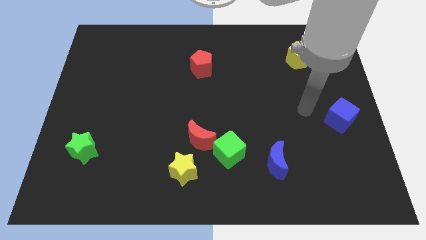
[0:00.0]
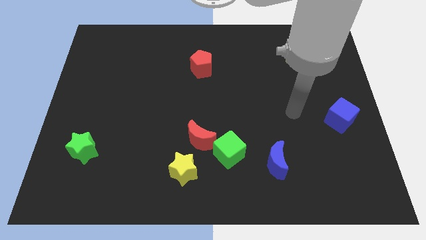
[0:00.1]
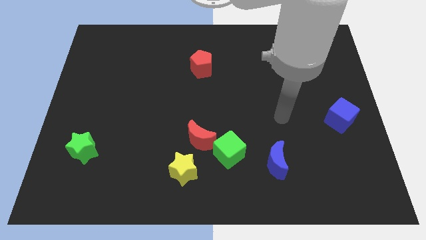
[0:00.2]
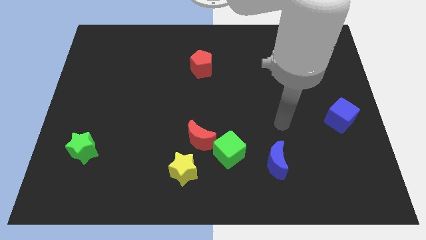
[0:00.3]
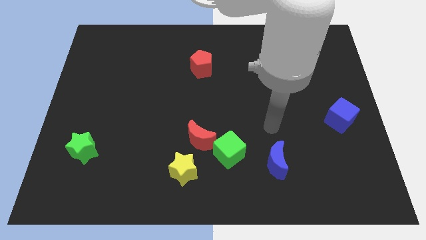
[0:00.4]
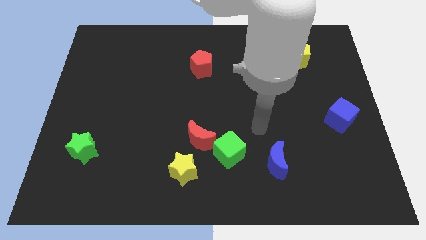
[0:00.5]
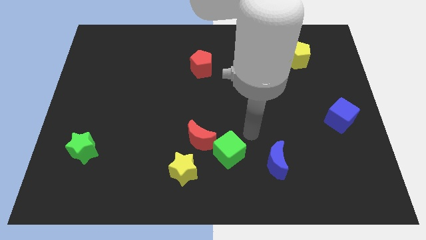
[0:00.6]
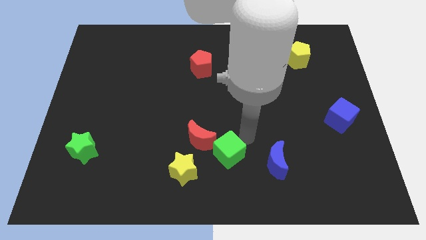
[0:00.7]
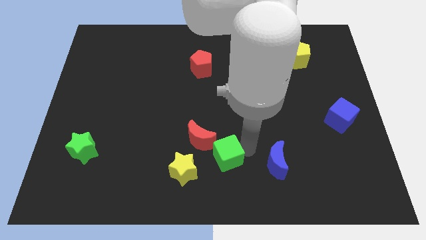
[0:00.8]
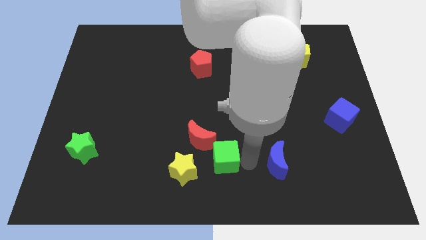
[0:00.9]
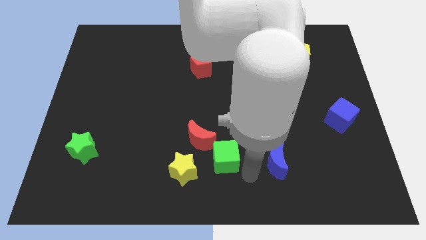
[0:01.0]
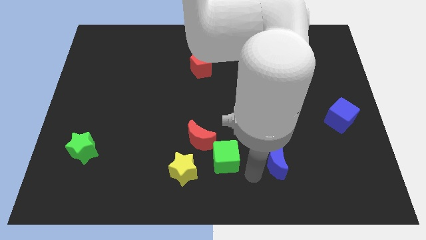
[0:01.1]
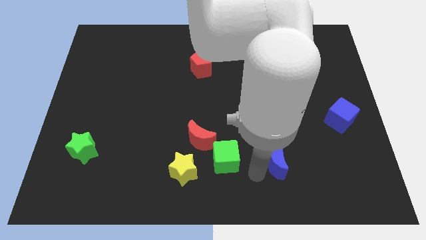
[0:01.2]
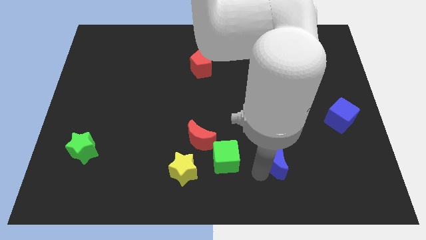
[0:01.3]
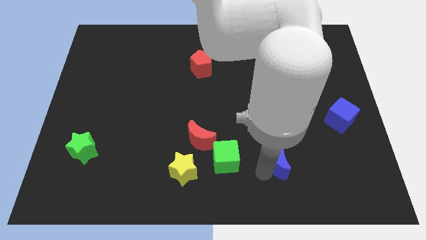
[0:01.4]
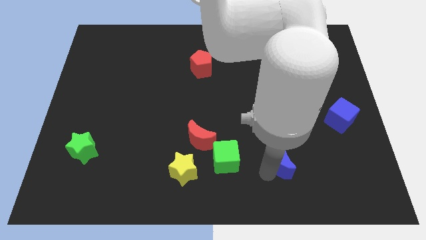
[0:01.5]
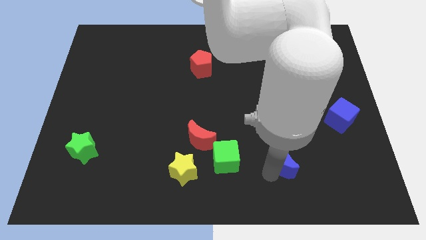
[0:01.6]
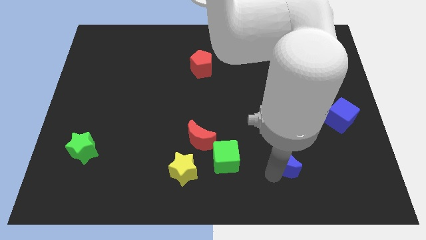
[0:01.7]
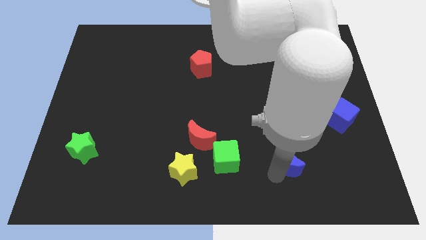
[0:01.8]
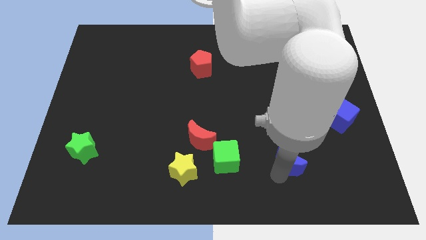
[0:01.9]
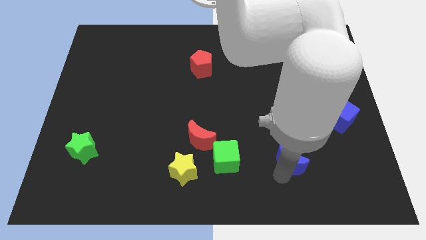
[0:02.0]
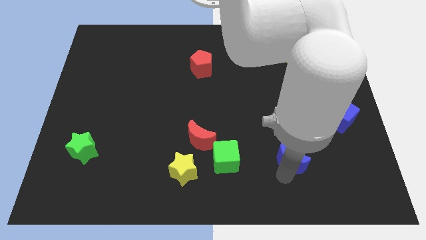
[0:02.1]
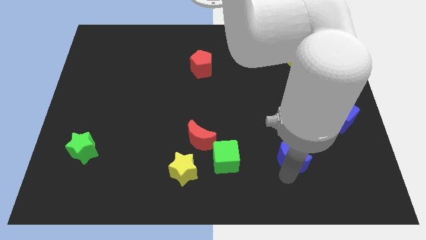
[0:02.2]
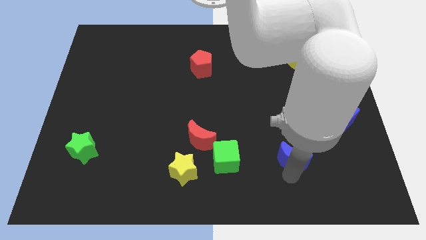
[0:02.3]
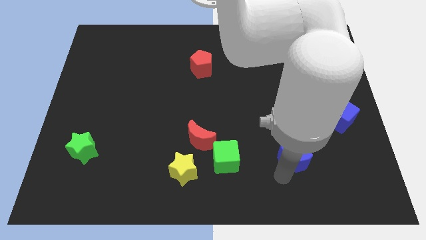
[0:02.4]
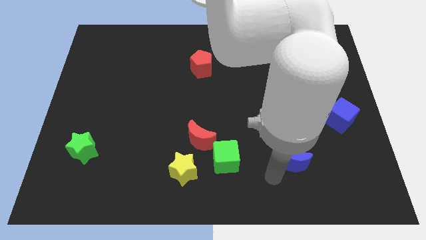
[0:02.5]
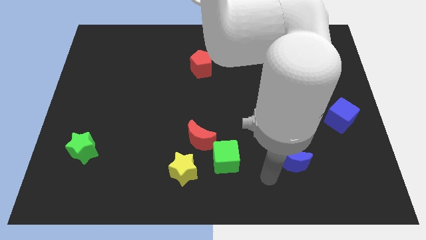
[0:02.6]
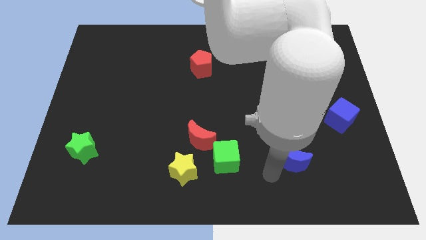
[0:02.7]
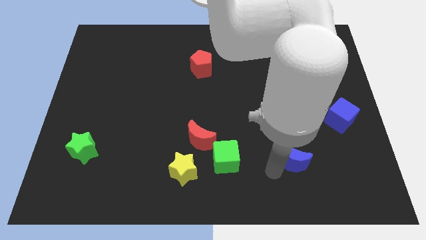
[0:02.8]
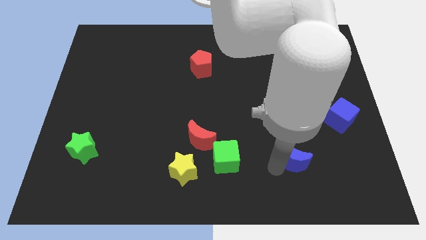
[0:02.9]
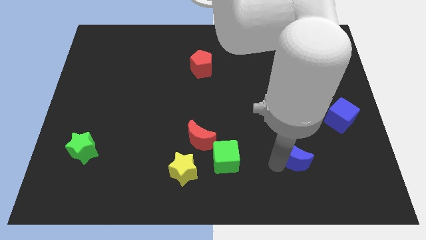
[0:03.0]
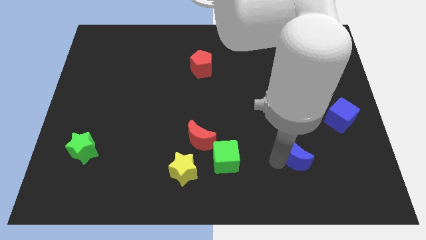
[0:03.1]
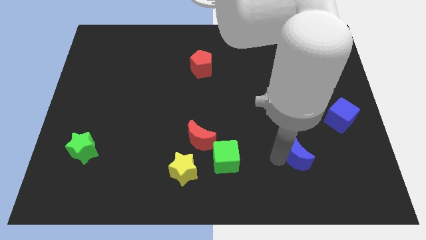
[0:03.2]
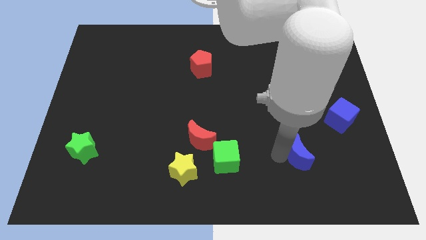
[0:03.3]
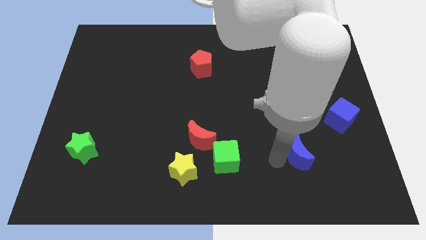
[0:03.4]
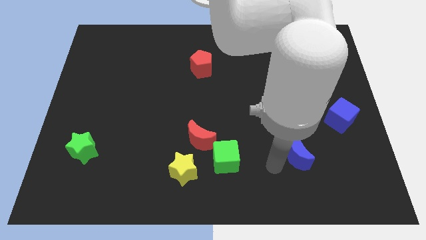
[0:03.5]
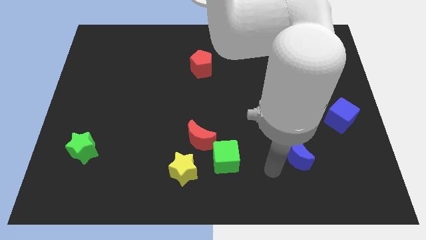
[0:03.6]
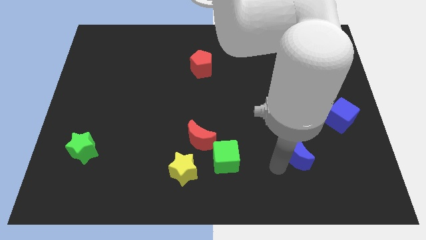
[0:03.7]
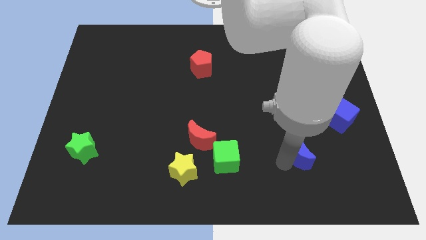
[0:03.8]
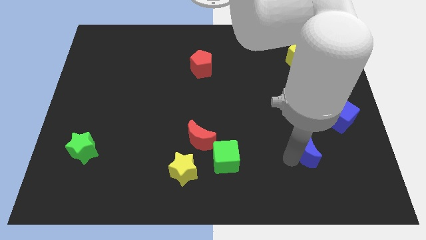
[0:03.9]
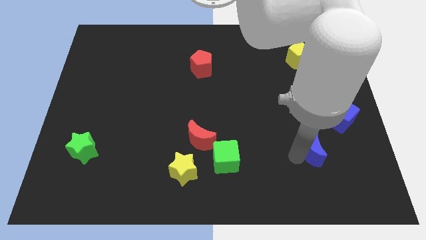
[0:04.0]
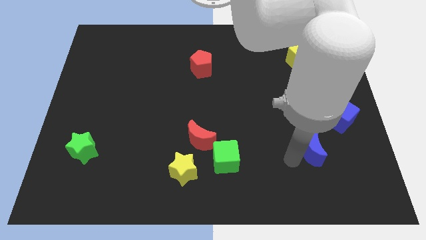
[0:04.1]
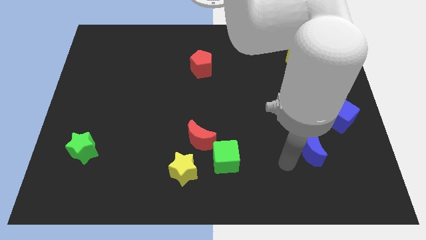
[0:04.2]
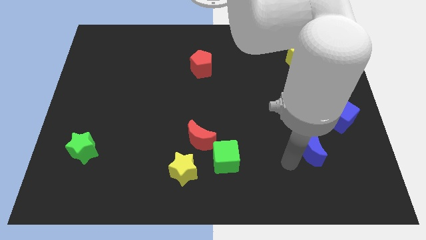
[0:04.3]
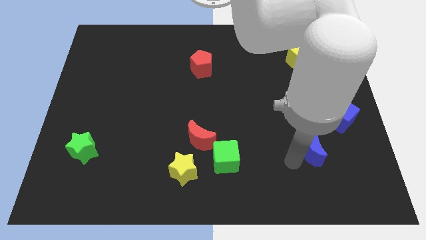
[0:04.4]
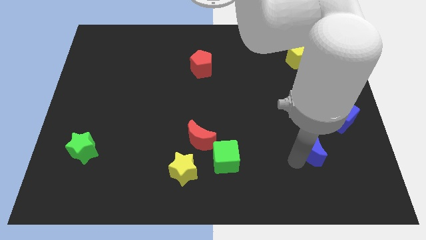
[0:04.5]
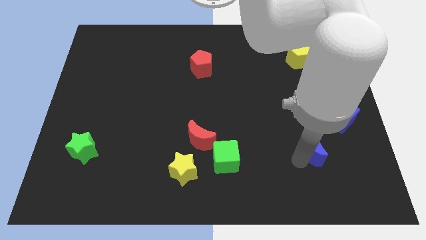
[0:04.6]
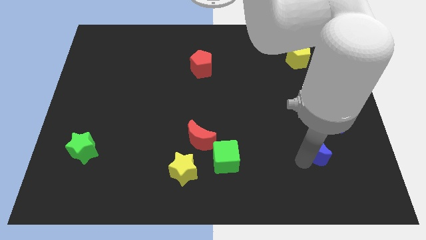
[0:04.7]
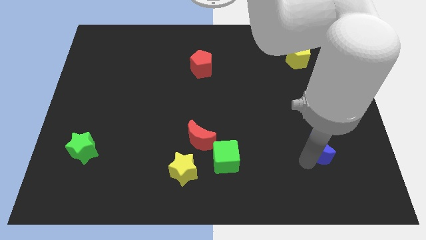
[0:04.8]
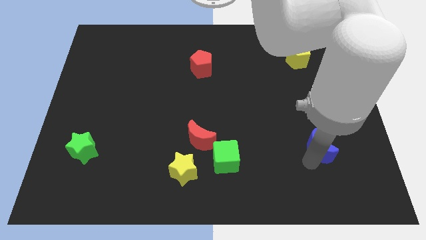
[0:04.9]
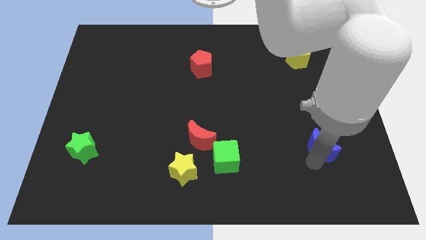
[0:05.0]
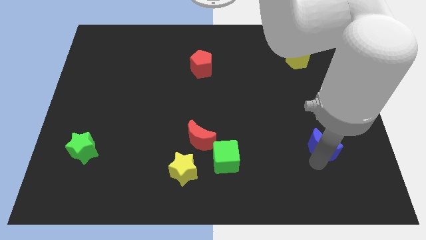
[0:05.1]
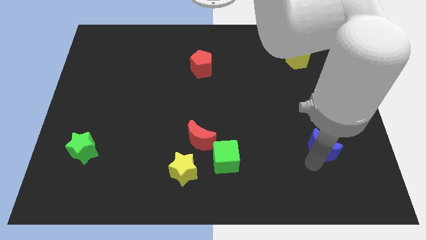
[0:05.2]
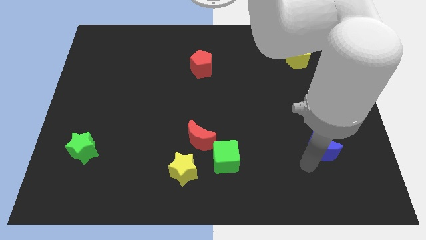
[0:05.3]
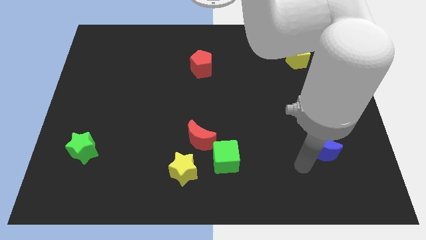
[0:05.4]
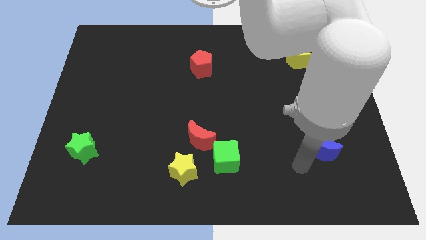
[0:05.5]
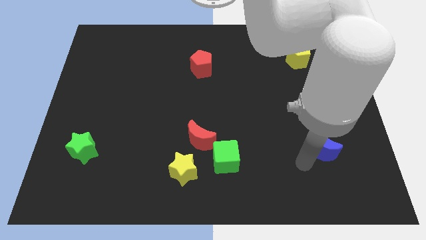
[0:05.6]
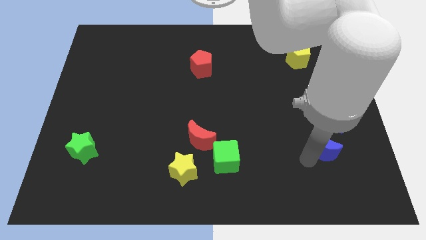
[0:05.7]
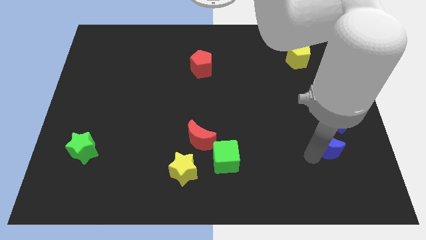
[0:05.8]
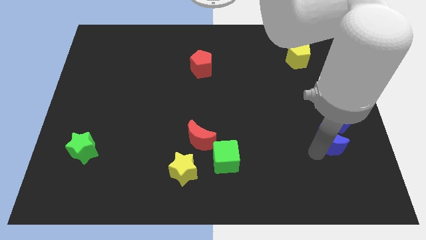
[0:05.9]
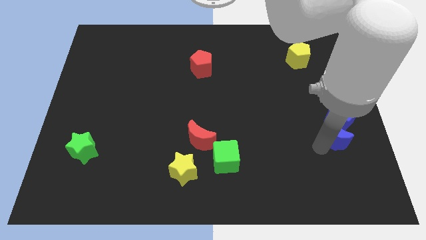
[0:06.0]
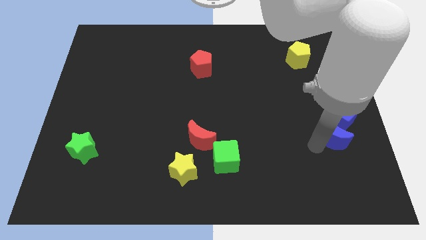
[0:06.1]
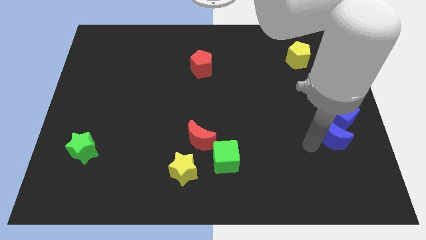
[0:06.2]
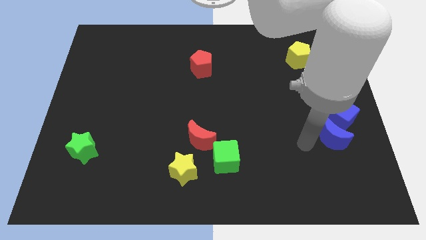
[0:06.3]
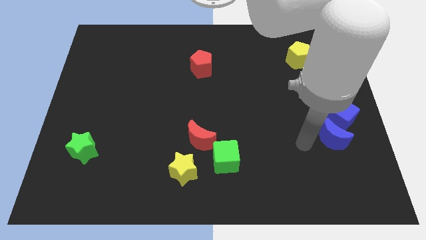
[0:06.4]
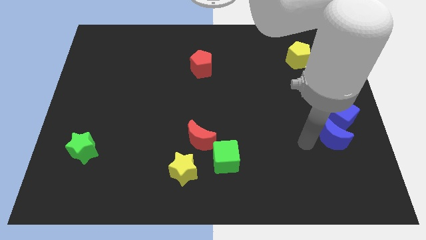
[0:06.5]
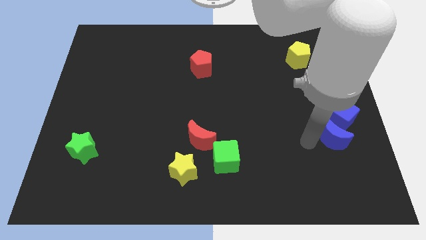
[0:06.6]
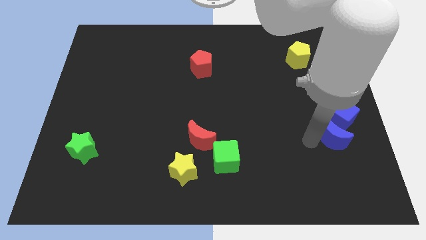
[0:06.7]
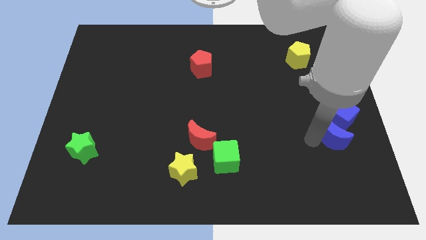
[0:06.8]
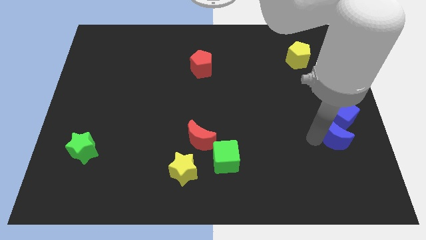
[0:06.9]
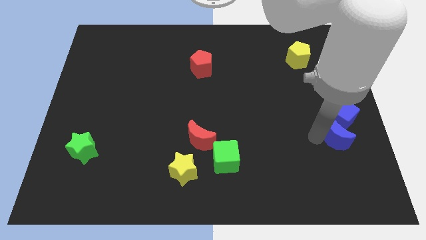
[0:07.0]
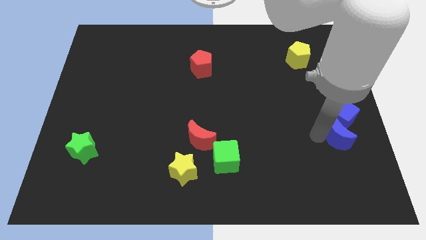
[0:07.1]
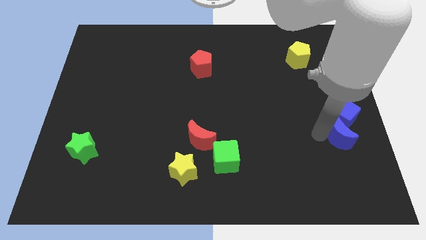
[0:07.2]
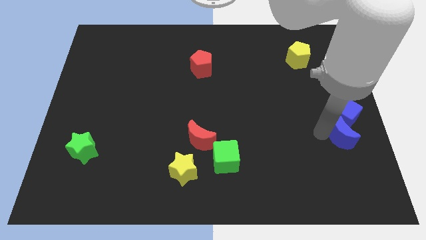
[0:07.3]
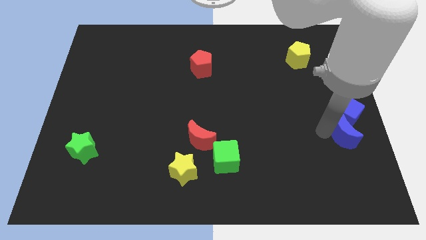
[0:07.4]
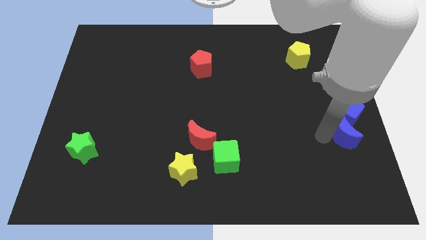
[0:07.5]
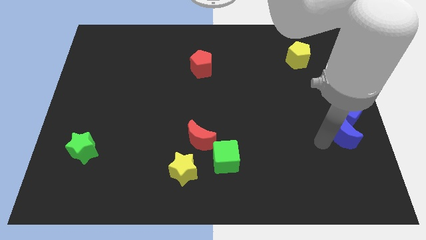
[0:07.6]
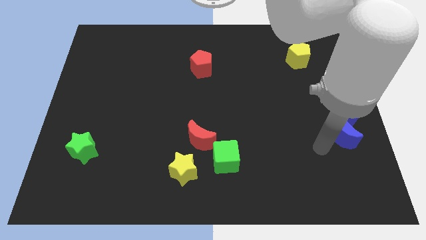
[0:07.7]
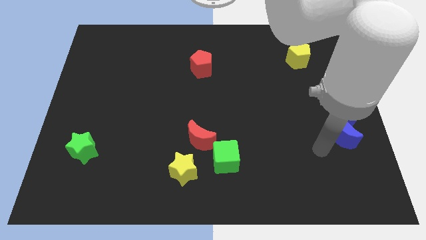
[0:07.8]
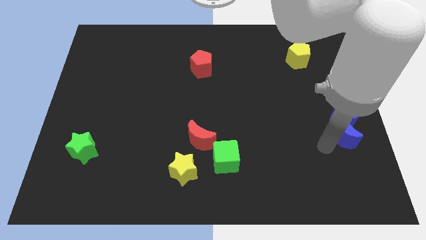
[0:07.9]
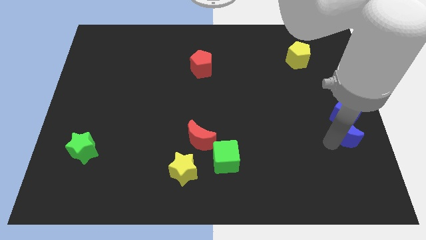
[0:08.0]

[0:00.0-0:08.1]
move the blue moon to the right side
